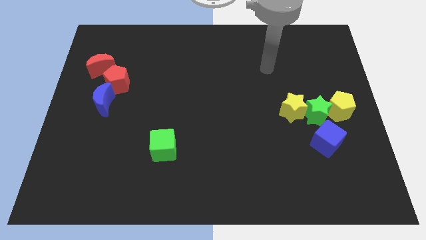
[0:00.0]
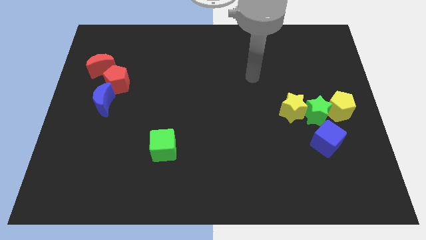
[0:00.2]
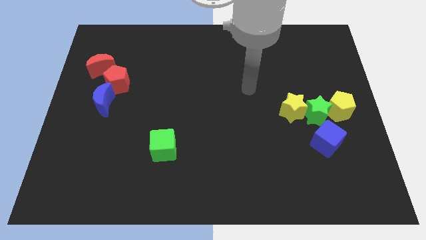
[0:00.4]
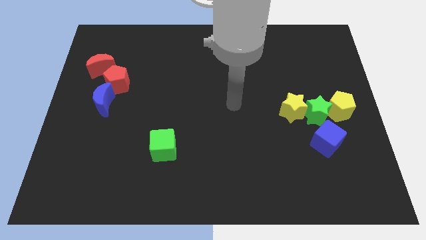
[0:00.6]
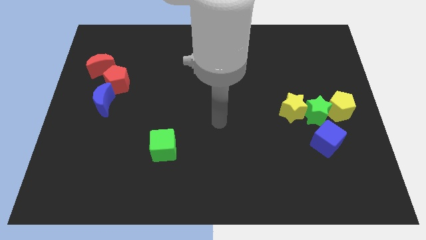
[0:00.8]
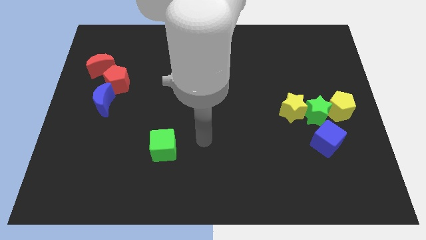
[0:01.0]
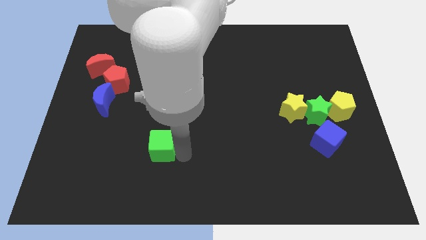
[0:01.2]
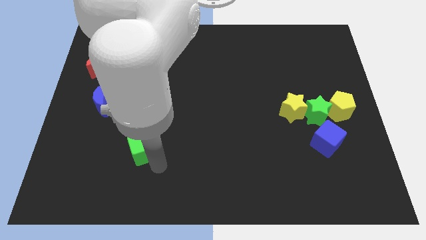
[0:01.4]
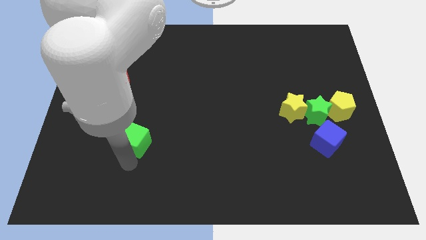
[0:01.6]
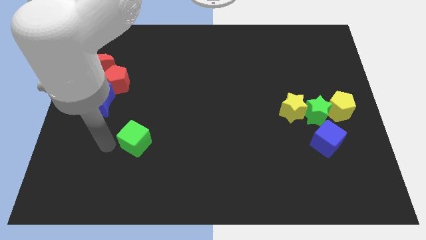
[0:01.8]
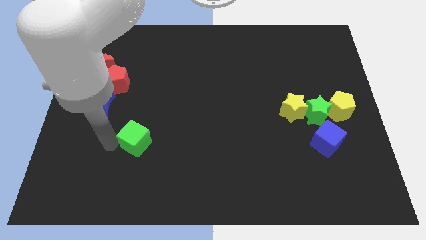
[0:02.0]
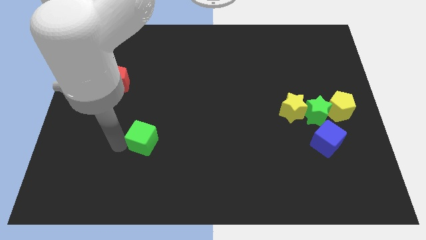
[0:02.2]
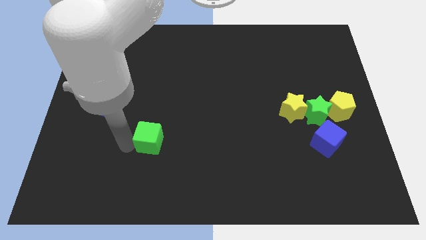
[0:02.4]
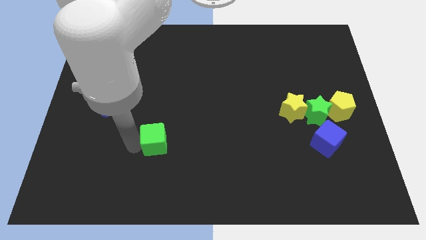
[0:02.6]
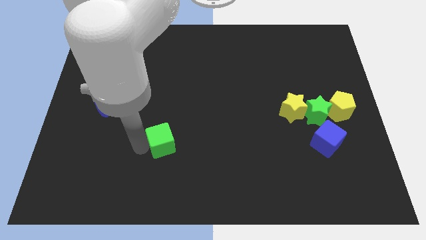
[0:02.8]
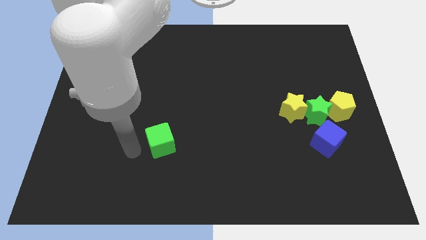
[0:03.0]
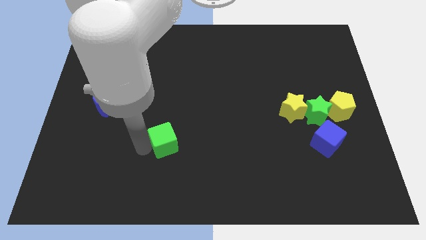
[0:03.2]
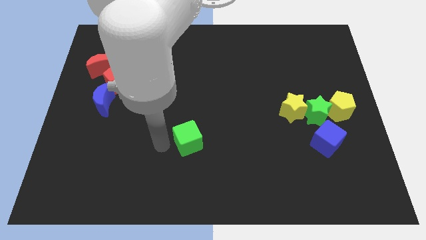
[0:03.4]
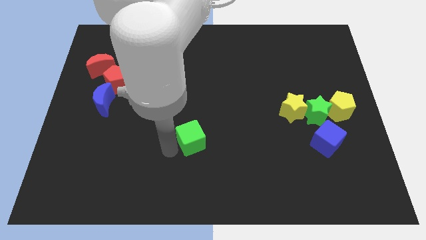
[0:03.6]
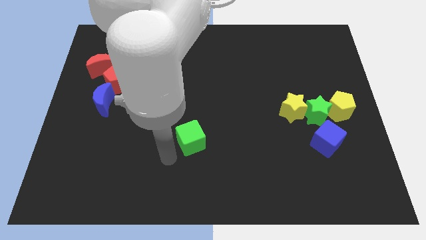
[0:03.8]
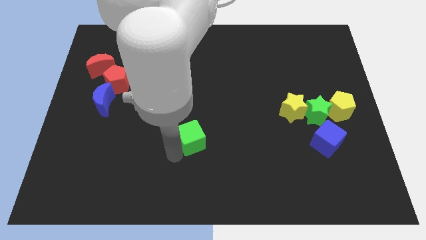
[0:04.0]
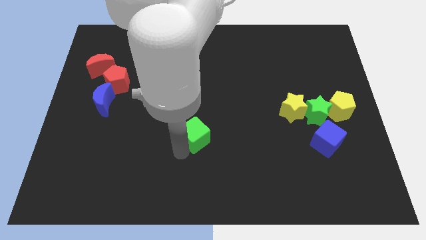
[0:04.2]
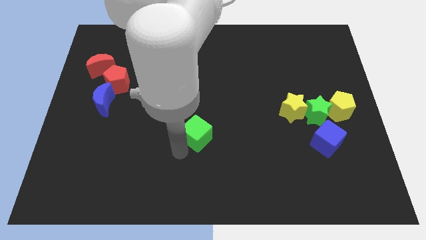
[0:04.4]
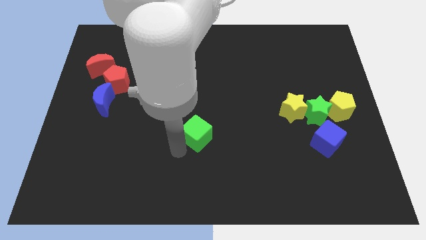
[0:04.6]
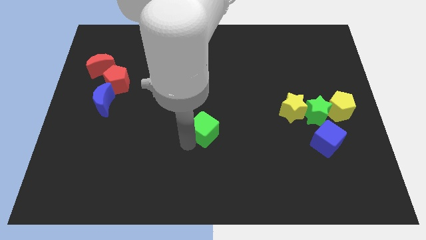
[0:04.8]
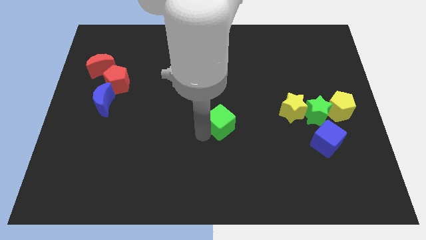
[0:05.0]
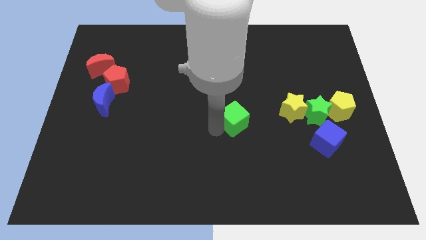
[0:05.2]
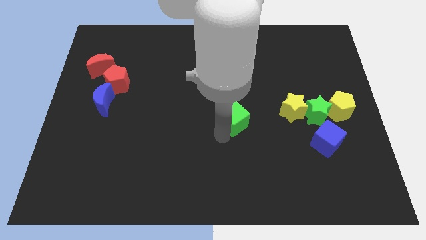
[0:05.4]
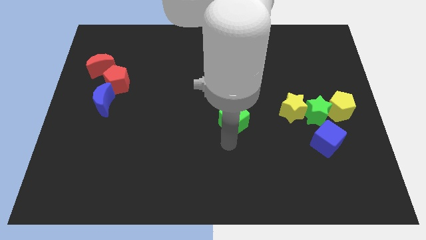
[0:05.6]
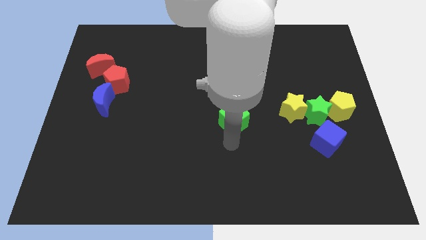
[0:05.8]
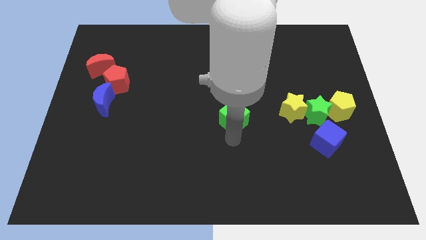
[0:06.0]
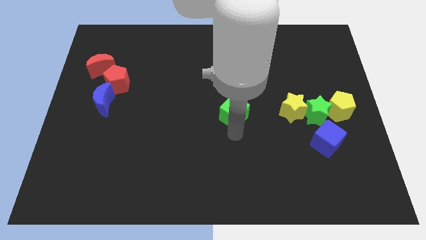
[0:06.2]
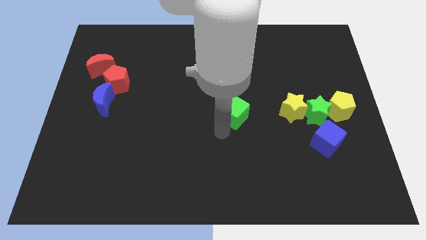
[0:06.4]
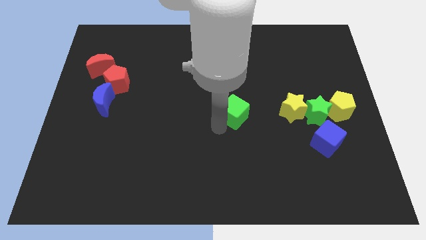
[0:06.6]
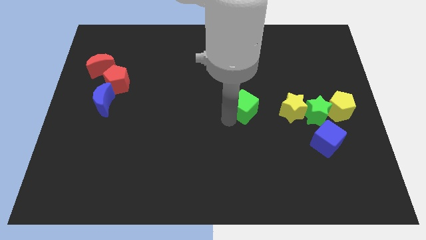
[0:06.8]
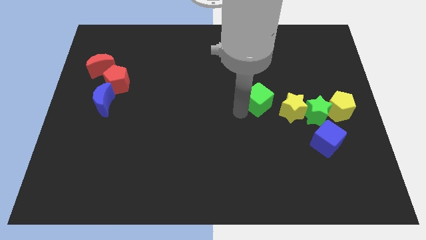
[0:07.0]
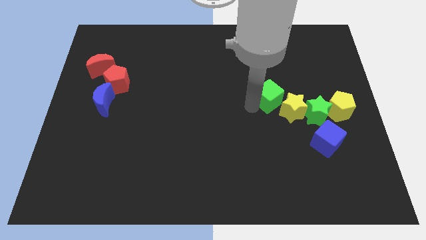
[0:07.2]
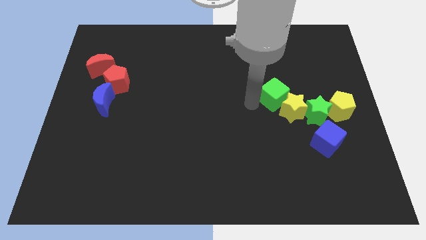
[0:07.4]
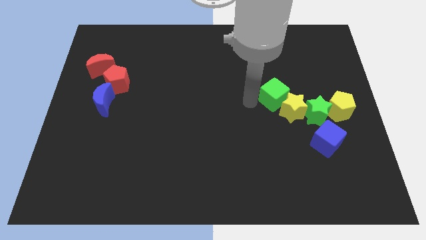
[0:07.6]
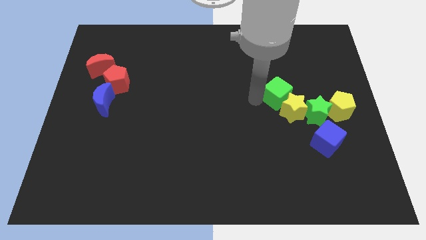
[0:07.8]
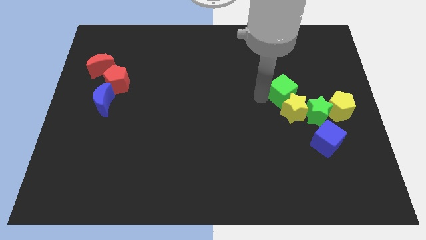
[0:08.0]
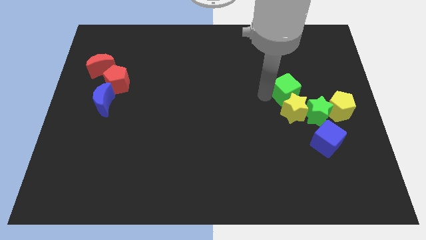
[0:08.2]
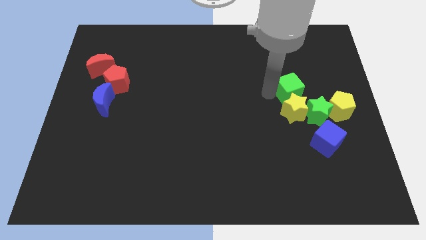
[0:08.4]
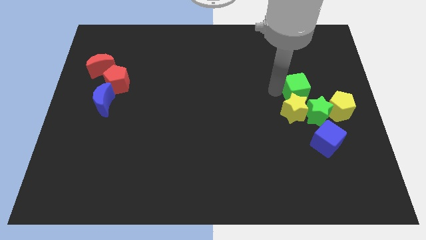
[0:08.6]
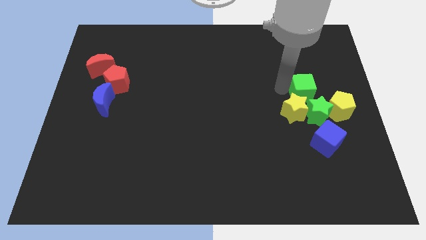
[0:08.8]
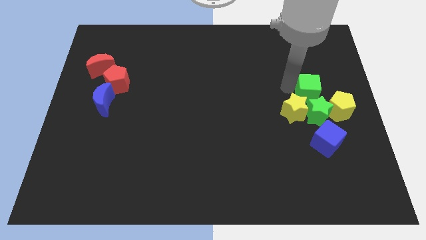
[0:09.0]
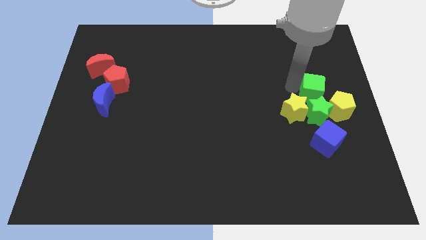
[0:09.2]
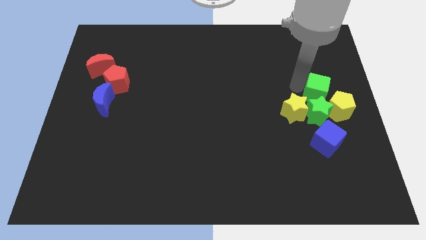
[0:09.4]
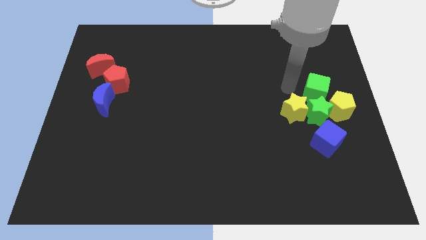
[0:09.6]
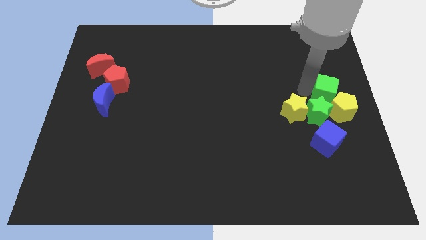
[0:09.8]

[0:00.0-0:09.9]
put the green cube to the right side

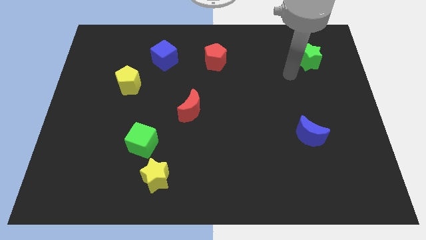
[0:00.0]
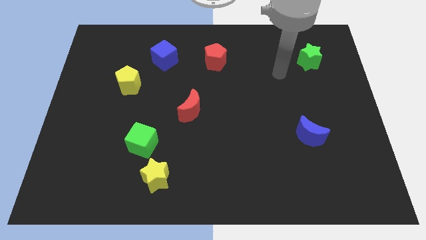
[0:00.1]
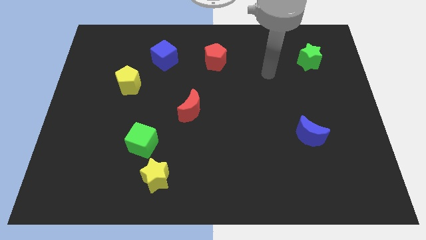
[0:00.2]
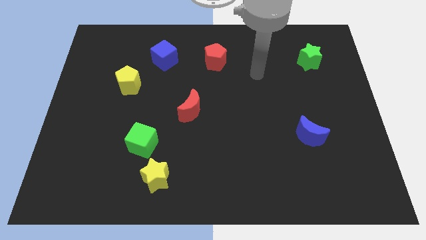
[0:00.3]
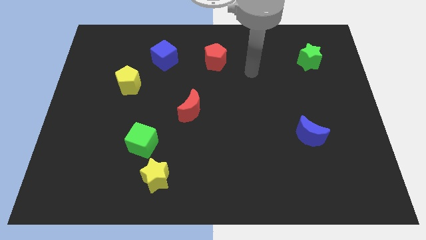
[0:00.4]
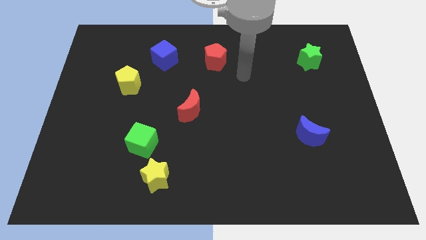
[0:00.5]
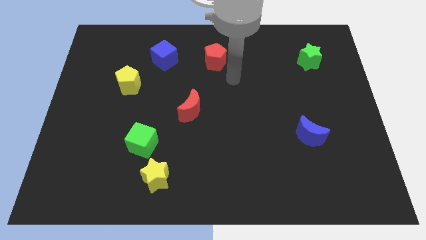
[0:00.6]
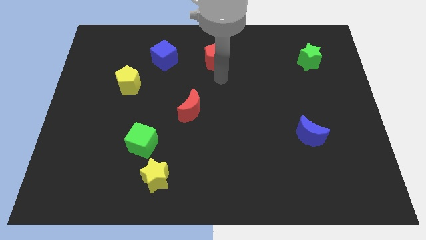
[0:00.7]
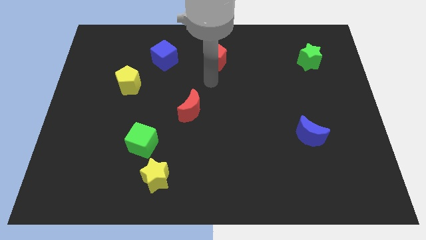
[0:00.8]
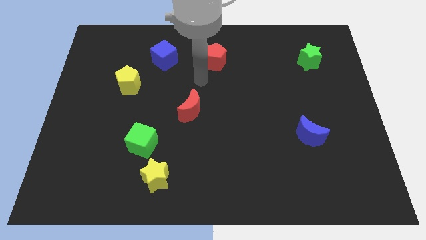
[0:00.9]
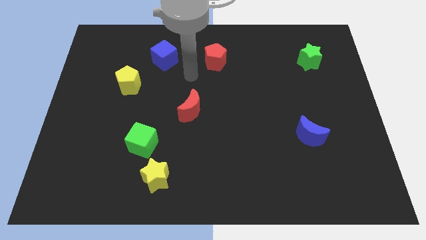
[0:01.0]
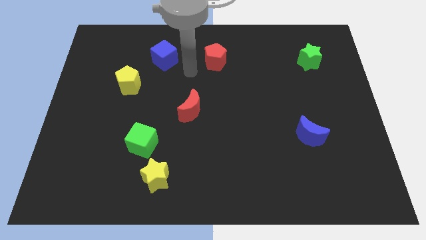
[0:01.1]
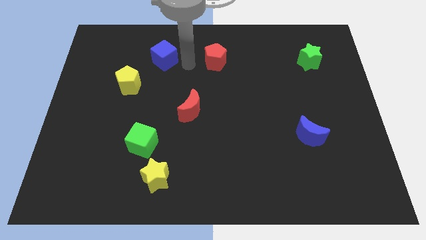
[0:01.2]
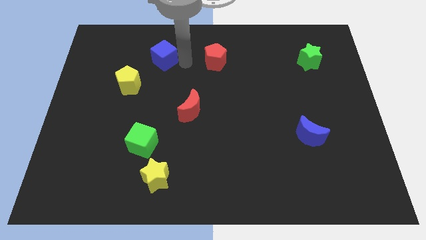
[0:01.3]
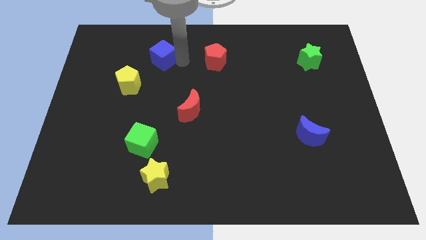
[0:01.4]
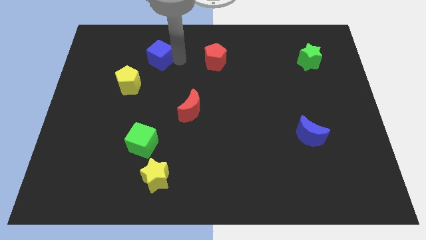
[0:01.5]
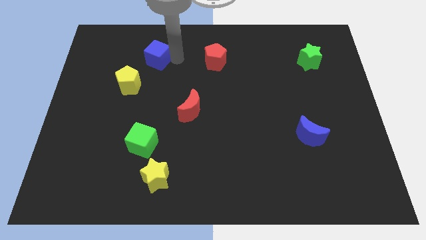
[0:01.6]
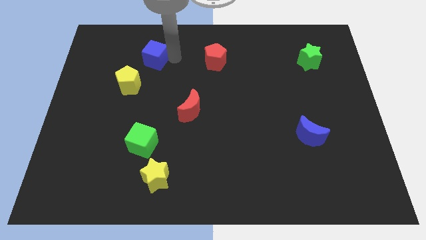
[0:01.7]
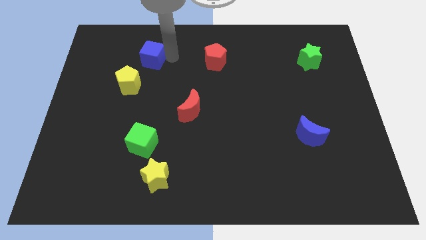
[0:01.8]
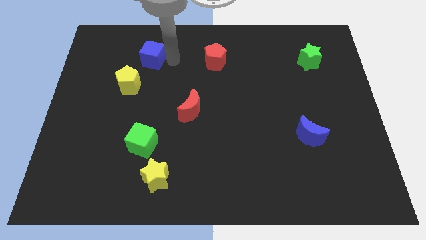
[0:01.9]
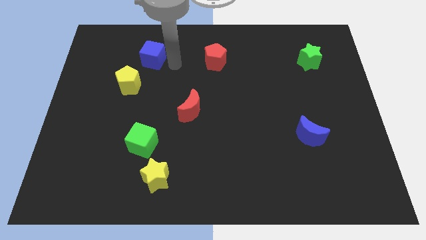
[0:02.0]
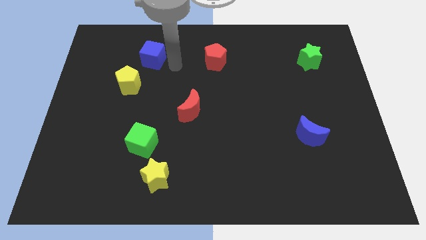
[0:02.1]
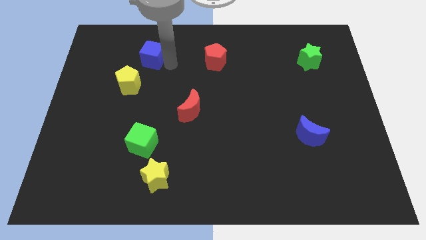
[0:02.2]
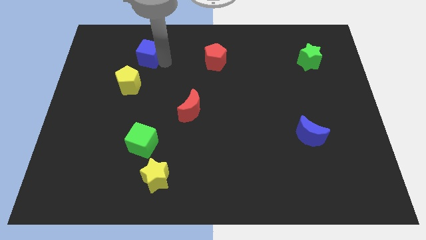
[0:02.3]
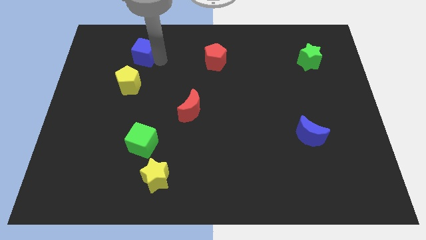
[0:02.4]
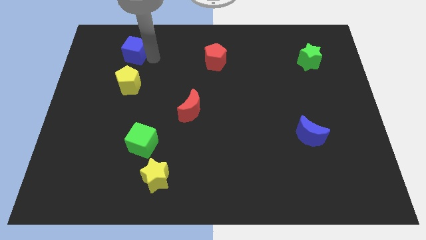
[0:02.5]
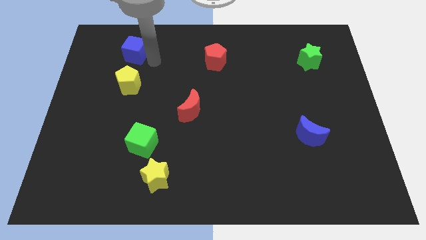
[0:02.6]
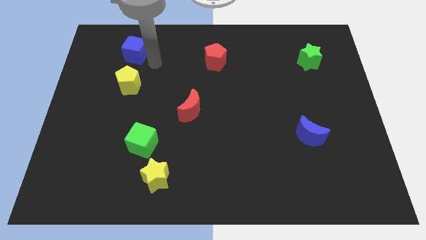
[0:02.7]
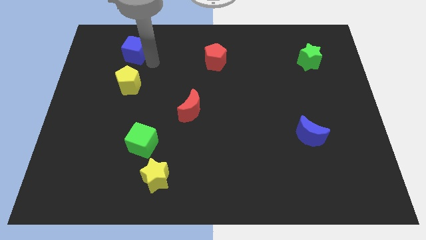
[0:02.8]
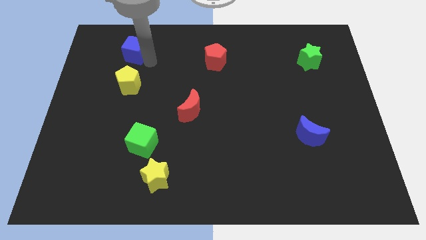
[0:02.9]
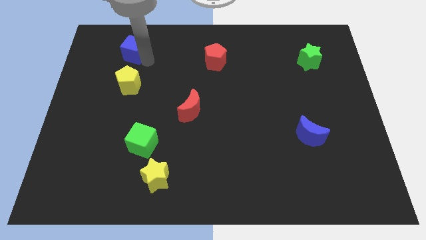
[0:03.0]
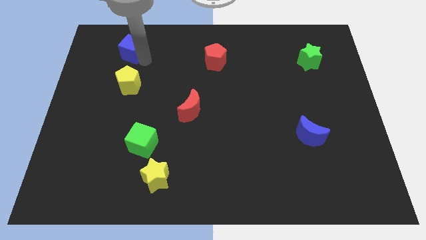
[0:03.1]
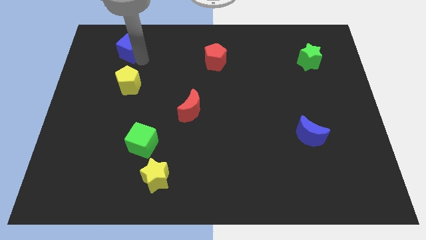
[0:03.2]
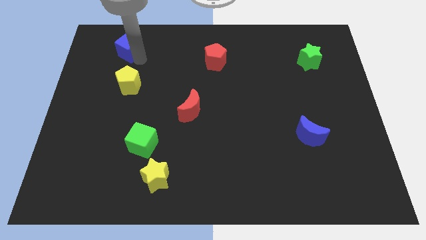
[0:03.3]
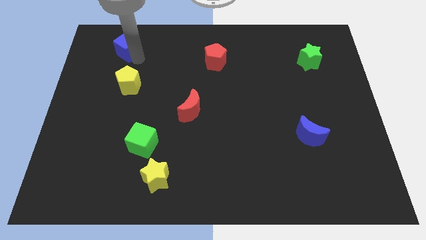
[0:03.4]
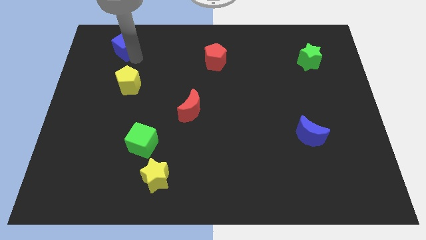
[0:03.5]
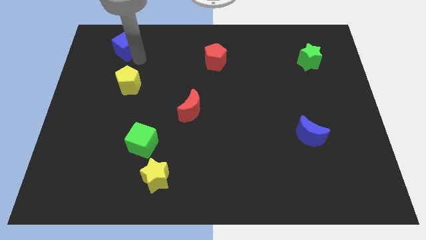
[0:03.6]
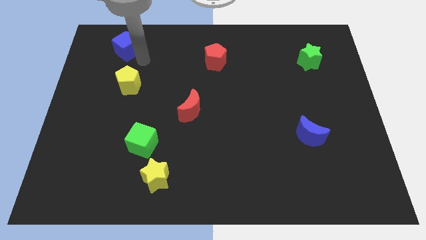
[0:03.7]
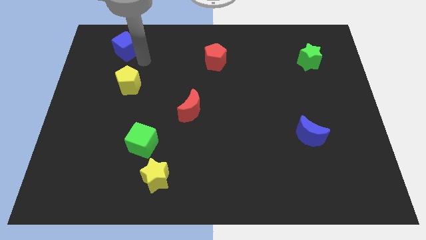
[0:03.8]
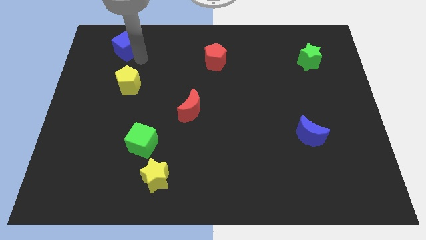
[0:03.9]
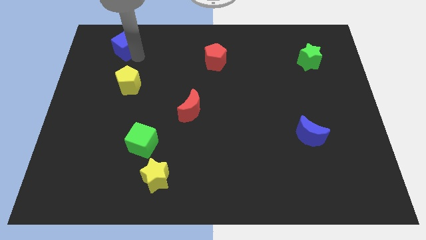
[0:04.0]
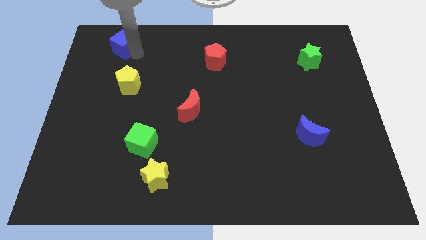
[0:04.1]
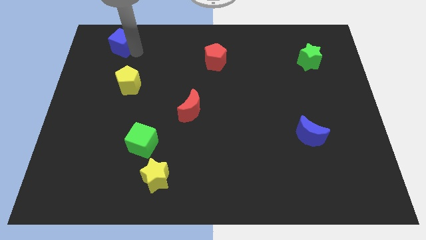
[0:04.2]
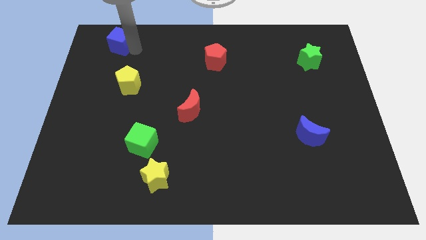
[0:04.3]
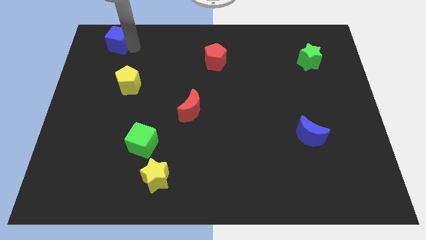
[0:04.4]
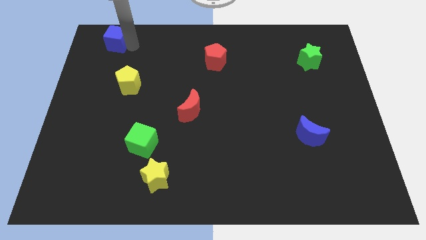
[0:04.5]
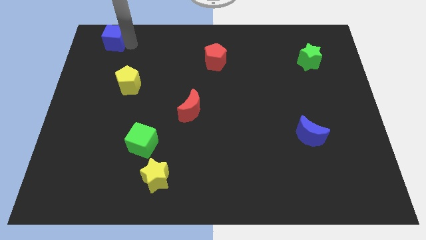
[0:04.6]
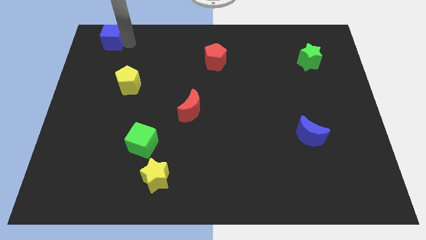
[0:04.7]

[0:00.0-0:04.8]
move the blue cube to the top left of the board
